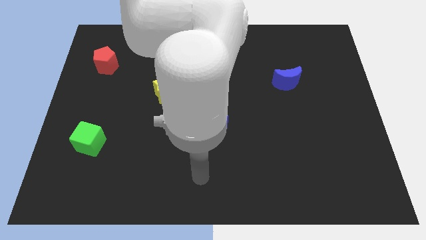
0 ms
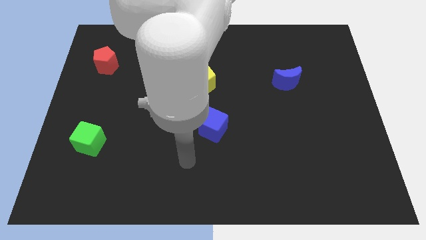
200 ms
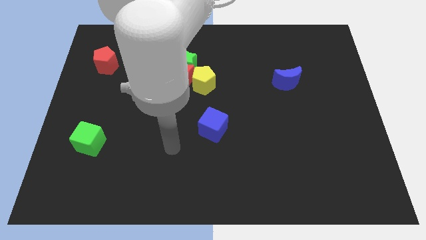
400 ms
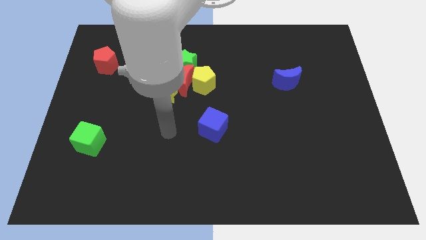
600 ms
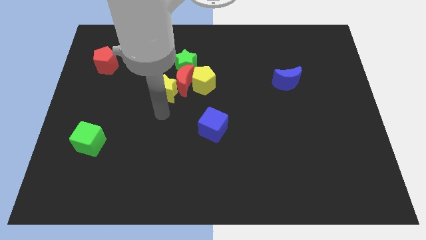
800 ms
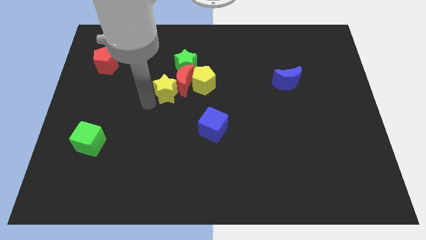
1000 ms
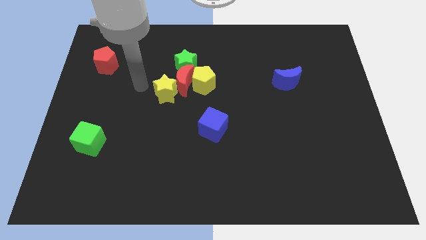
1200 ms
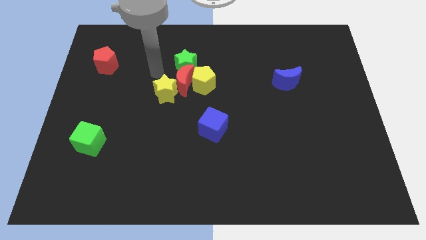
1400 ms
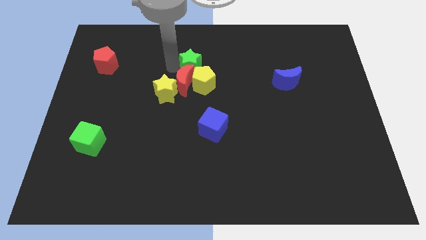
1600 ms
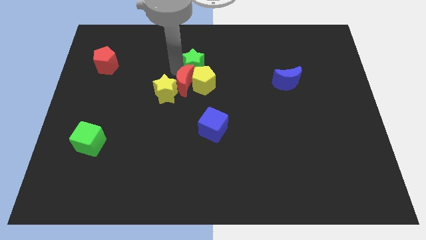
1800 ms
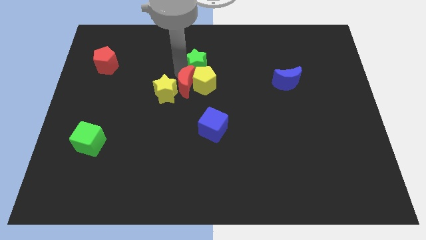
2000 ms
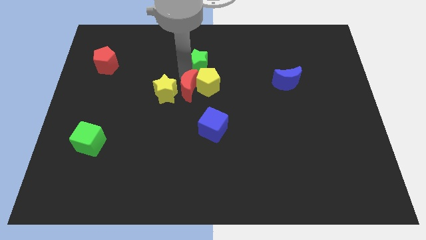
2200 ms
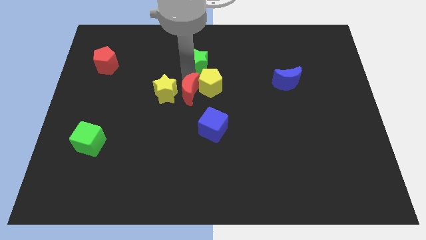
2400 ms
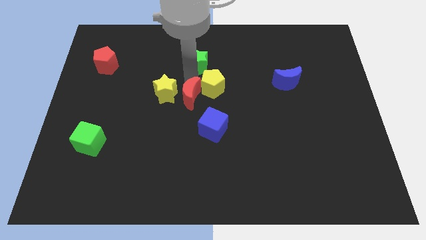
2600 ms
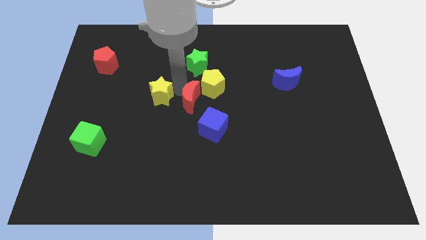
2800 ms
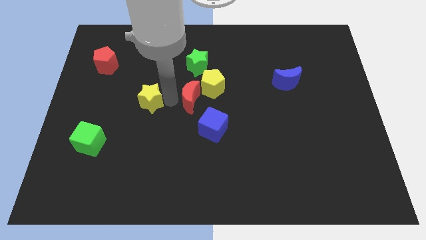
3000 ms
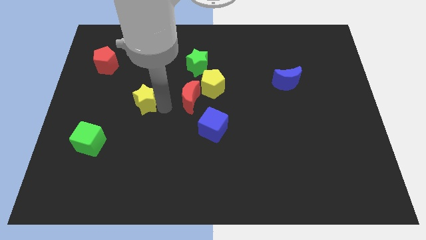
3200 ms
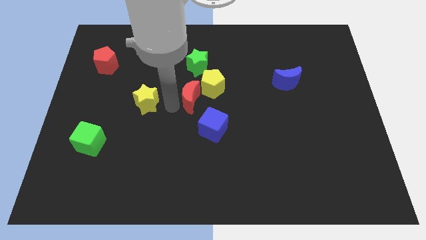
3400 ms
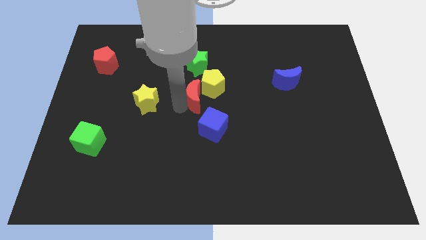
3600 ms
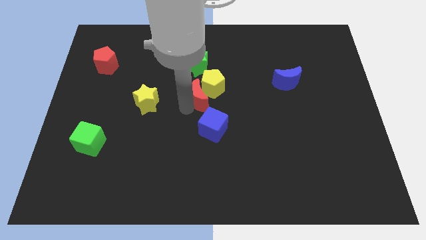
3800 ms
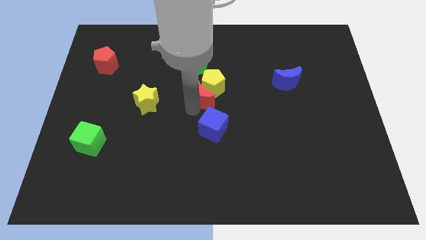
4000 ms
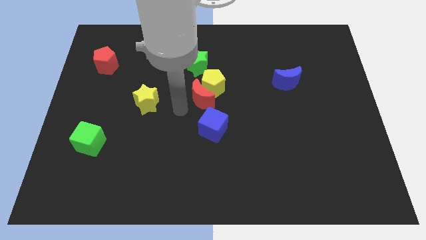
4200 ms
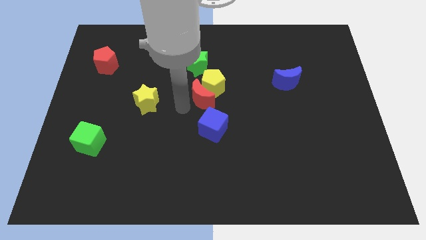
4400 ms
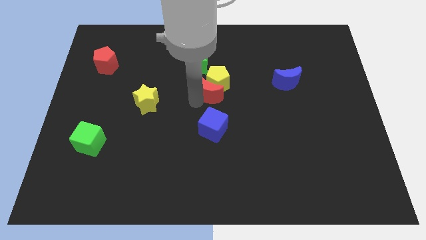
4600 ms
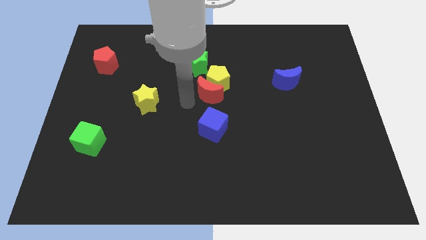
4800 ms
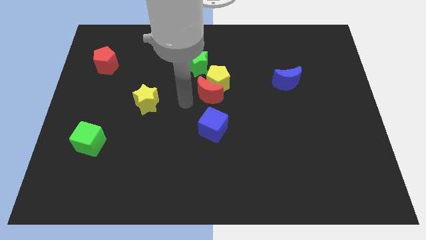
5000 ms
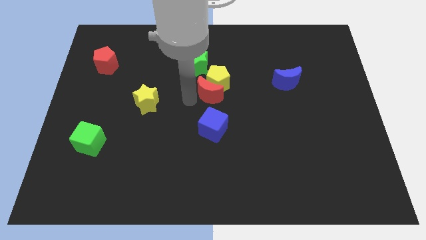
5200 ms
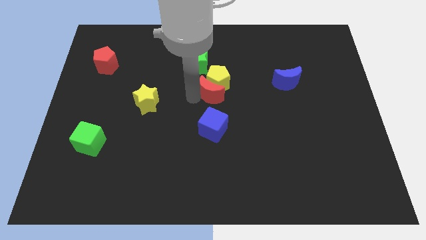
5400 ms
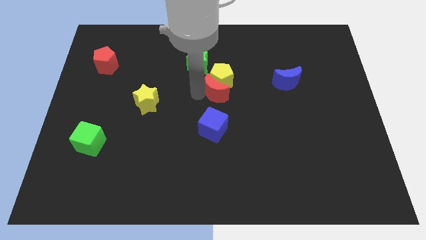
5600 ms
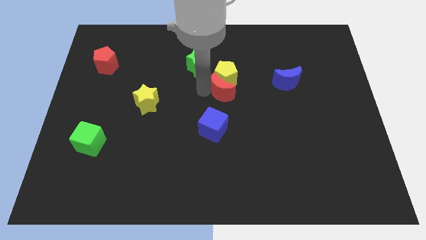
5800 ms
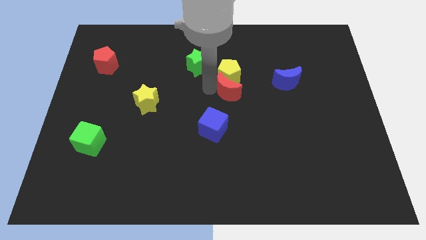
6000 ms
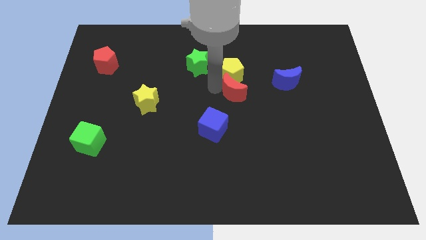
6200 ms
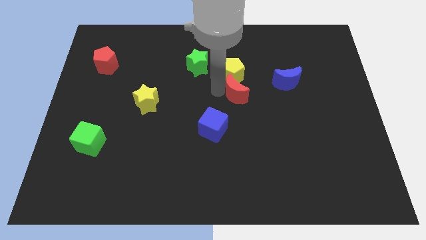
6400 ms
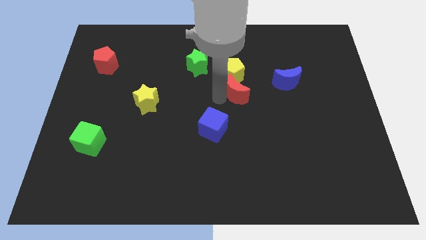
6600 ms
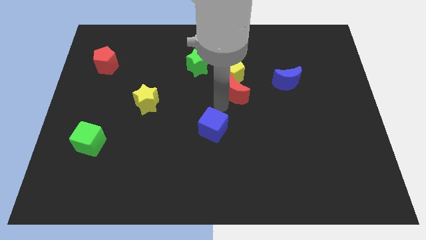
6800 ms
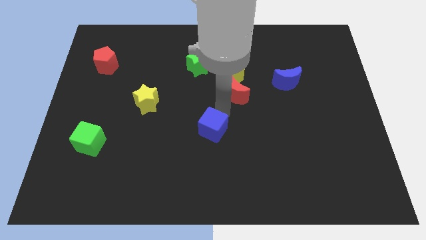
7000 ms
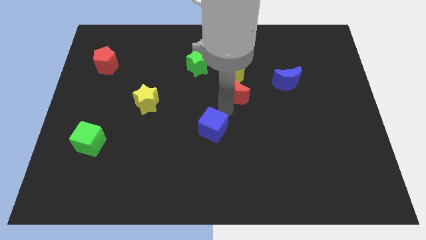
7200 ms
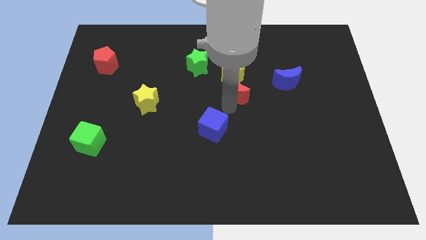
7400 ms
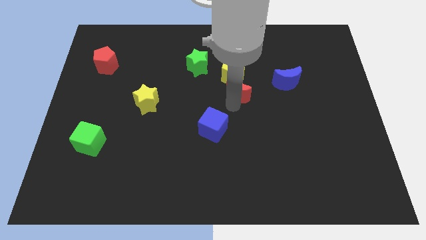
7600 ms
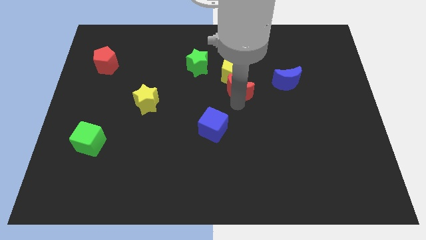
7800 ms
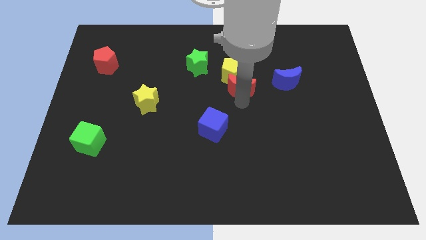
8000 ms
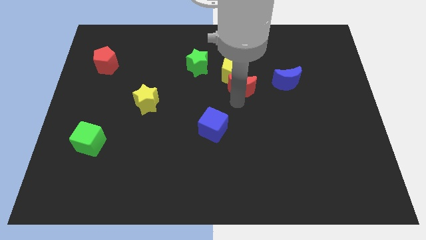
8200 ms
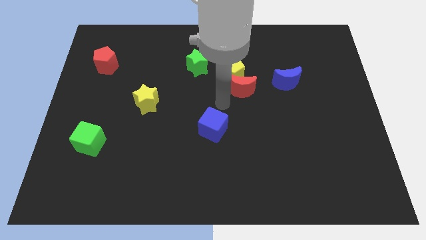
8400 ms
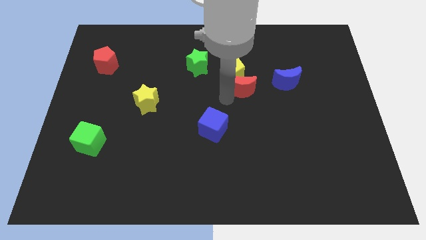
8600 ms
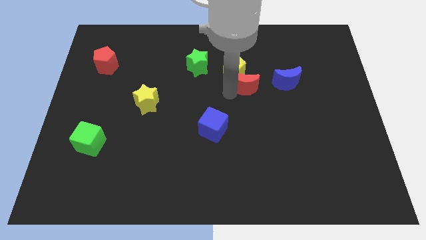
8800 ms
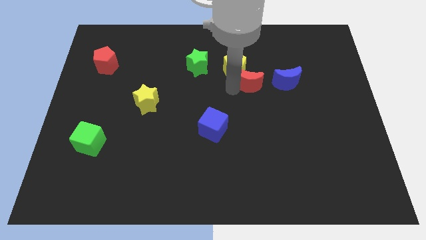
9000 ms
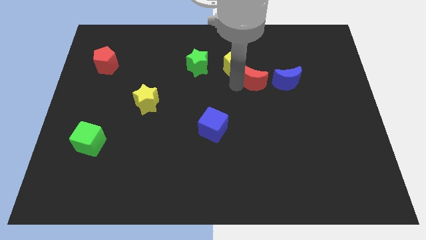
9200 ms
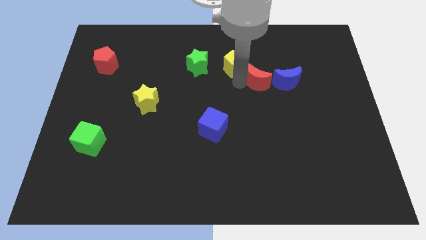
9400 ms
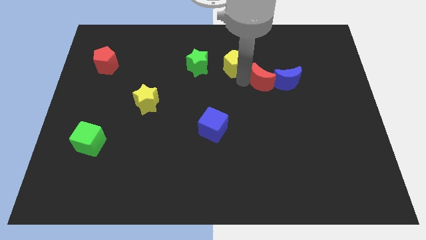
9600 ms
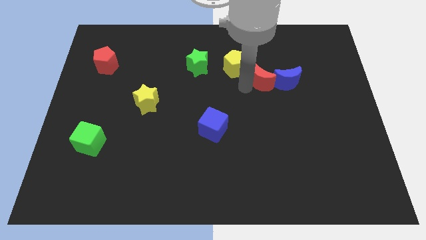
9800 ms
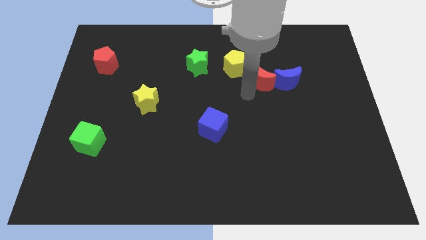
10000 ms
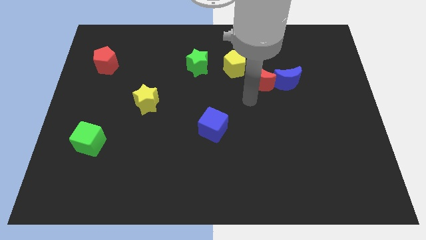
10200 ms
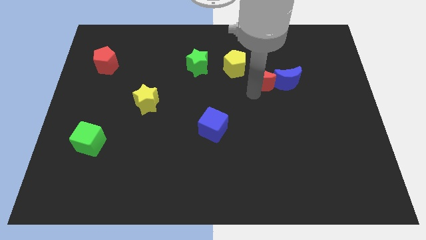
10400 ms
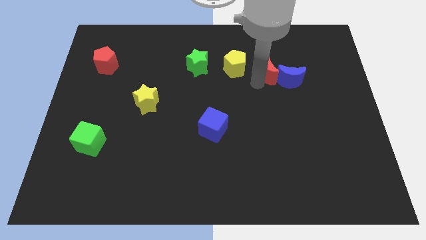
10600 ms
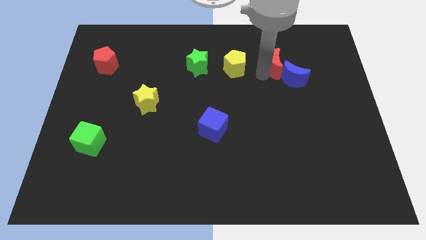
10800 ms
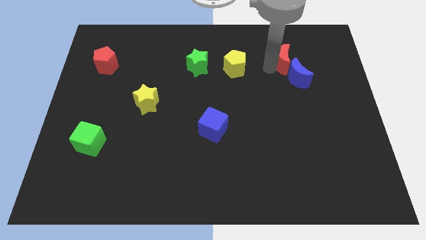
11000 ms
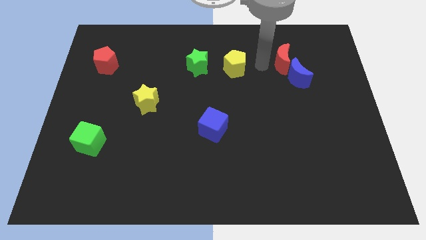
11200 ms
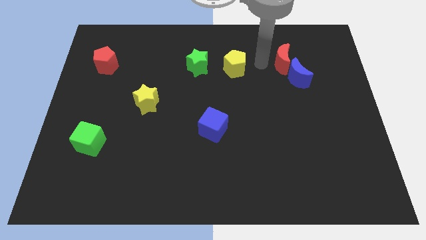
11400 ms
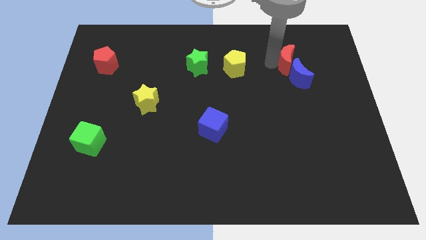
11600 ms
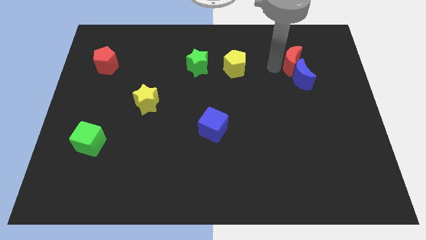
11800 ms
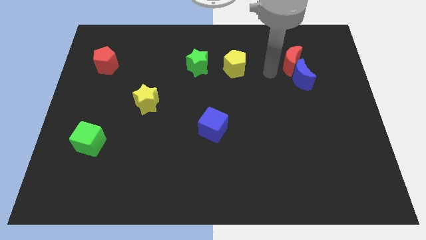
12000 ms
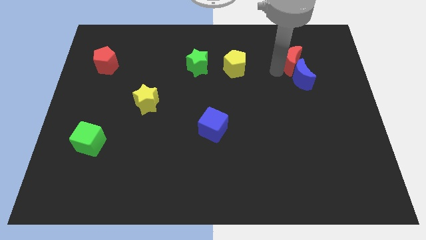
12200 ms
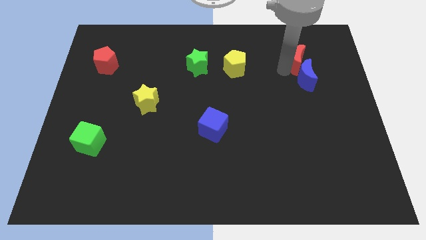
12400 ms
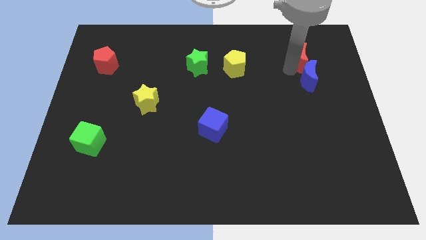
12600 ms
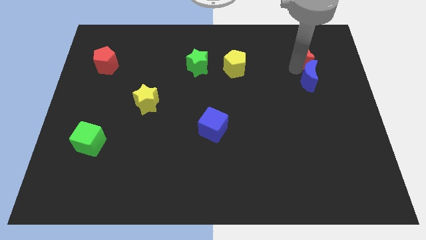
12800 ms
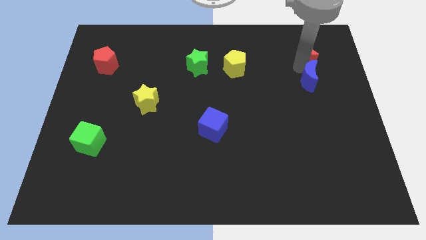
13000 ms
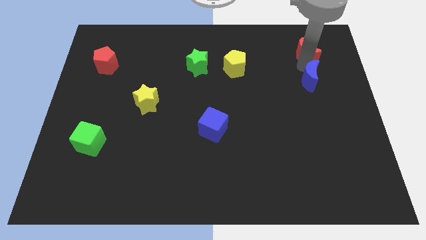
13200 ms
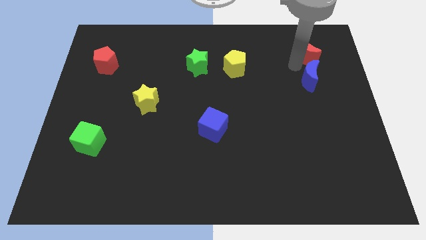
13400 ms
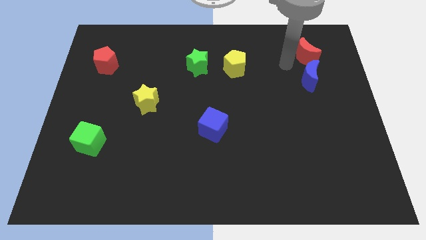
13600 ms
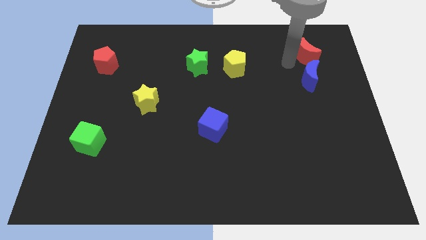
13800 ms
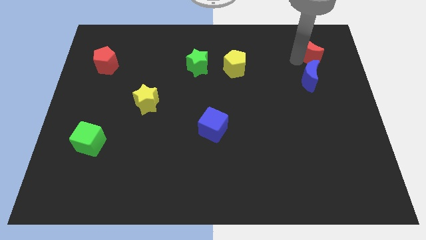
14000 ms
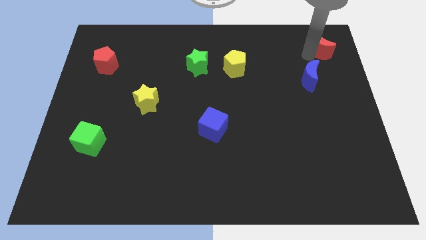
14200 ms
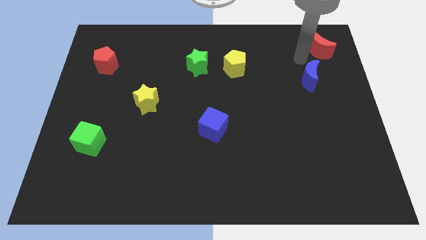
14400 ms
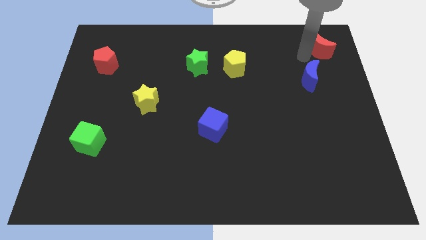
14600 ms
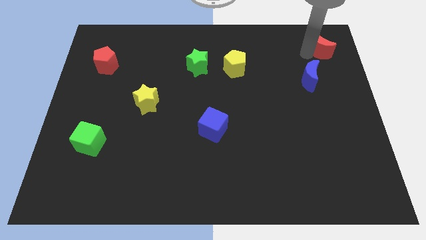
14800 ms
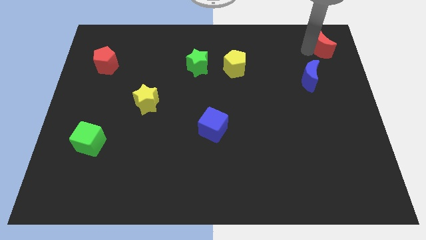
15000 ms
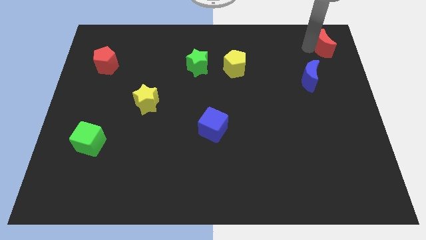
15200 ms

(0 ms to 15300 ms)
put the red moon to the upper right corner

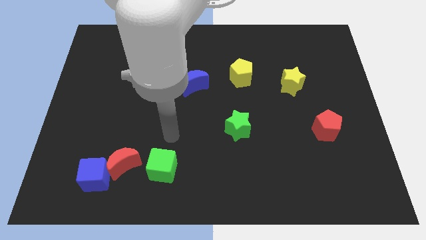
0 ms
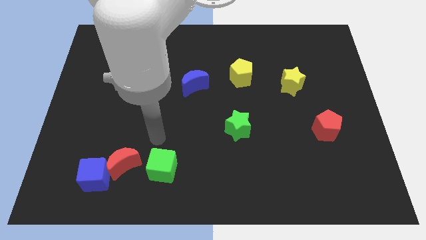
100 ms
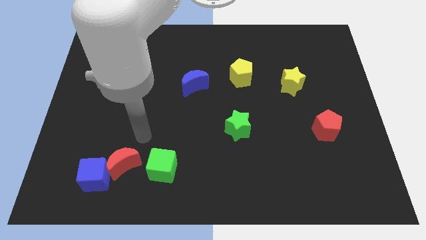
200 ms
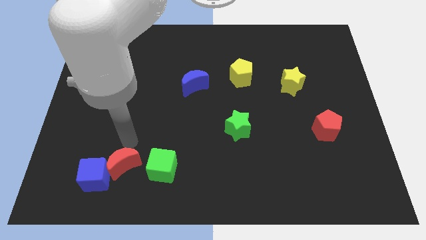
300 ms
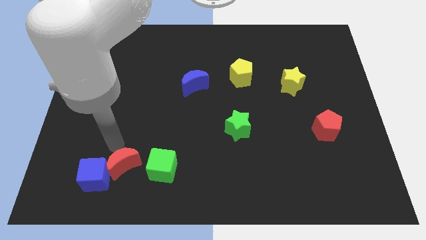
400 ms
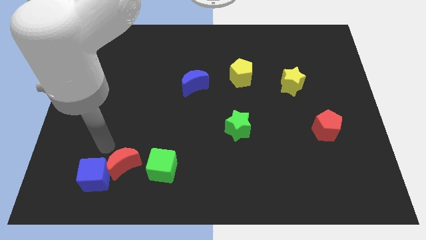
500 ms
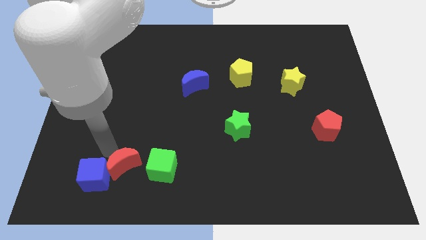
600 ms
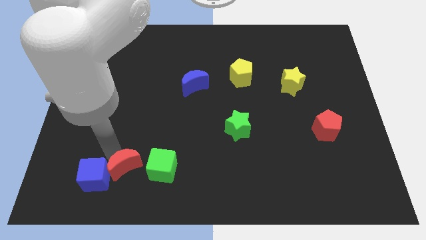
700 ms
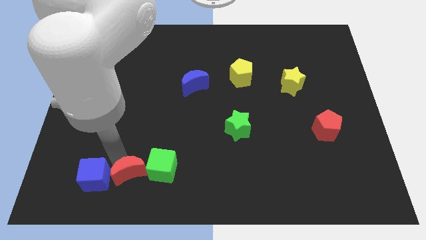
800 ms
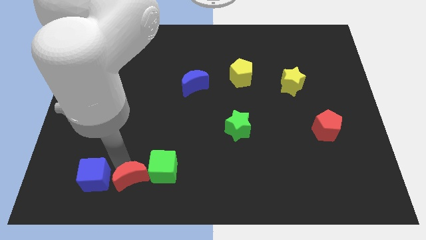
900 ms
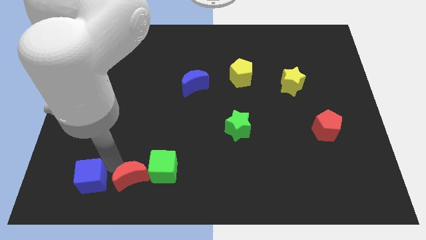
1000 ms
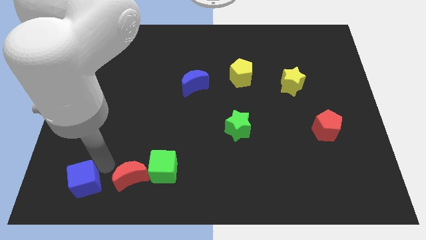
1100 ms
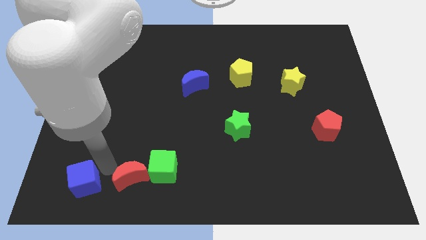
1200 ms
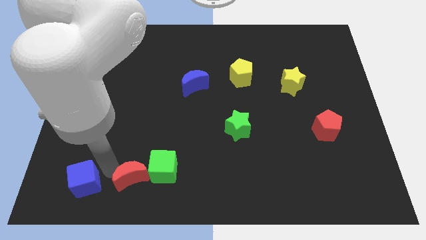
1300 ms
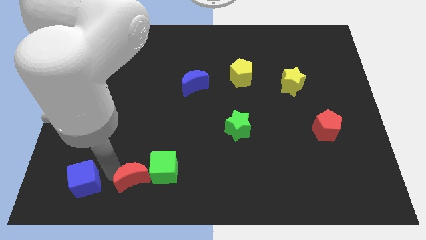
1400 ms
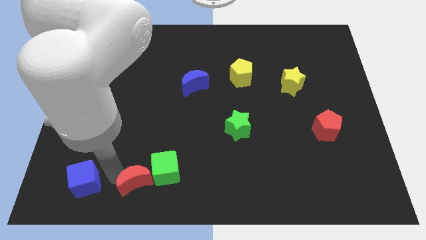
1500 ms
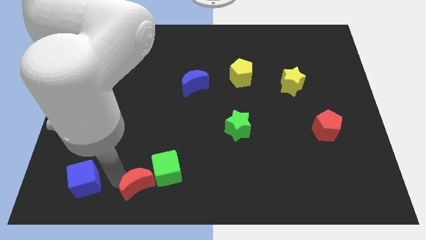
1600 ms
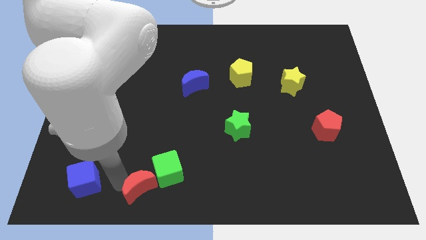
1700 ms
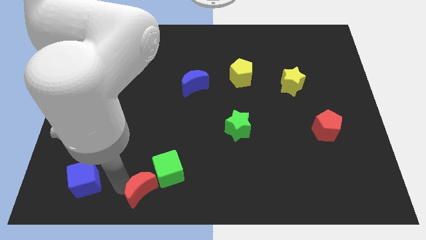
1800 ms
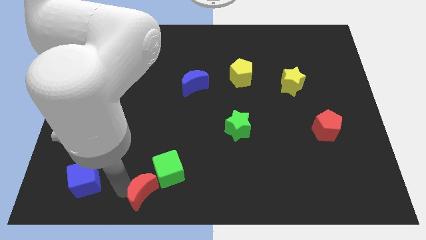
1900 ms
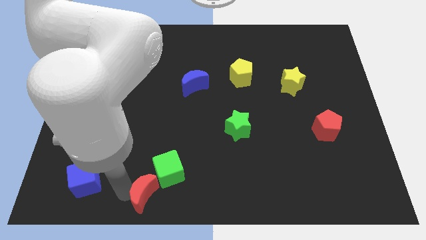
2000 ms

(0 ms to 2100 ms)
move the red moon to the bottom
